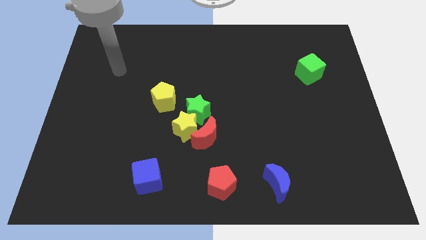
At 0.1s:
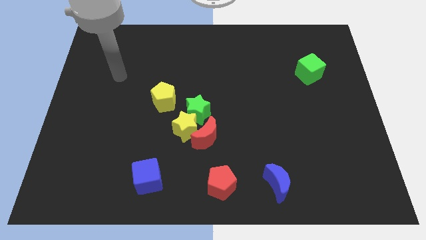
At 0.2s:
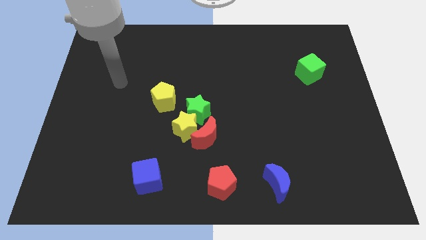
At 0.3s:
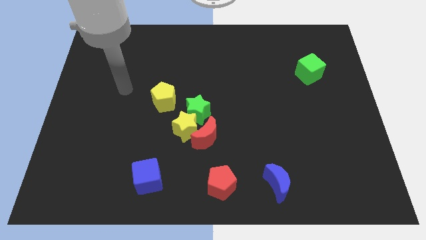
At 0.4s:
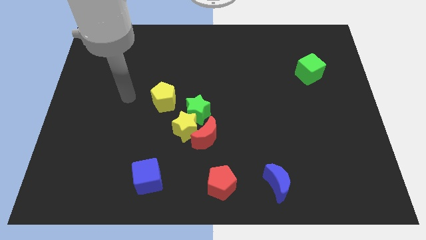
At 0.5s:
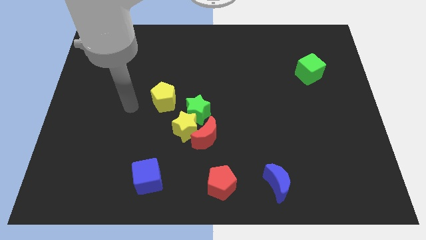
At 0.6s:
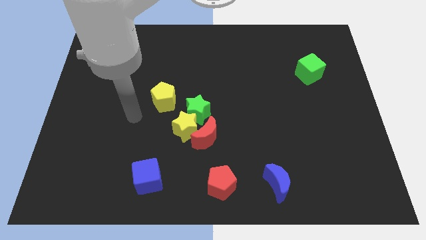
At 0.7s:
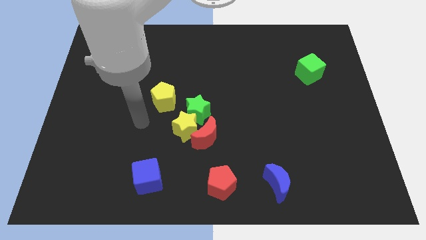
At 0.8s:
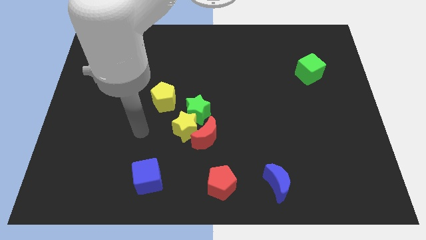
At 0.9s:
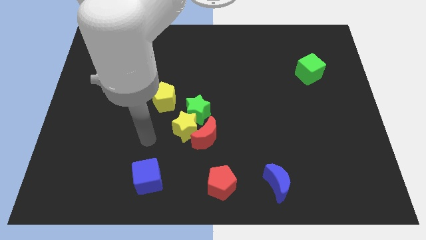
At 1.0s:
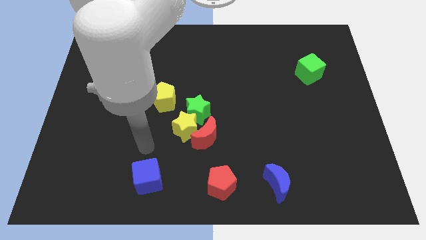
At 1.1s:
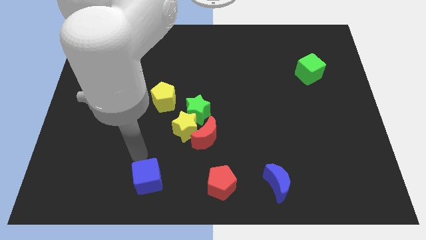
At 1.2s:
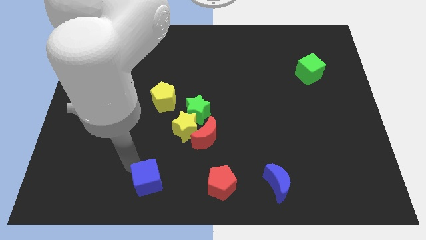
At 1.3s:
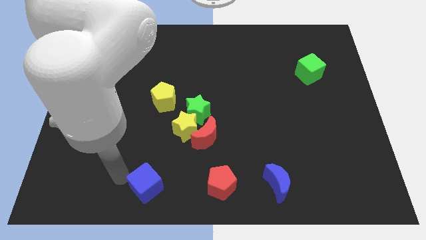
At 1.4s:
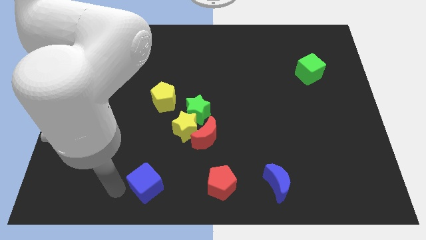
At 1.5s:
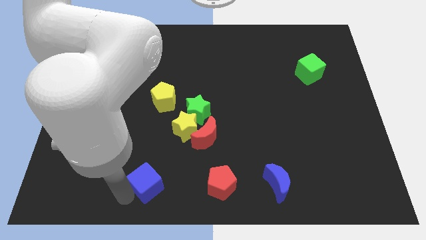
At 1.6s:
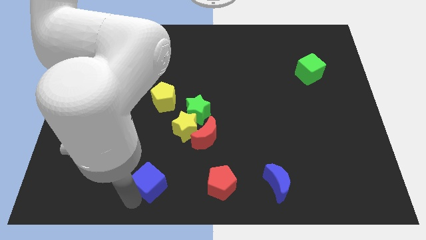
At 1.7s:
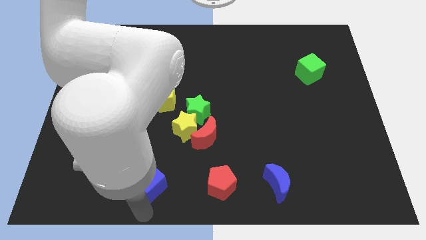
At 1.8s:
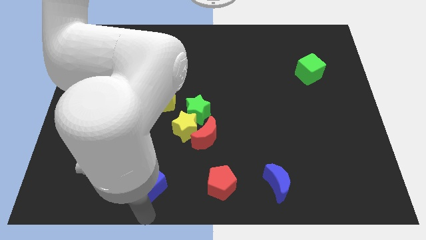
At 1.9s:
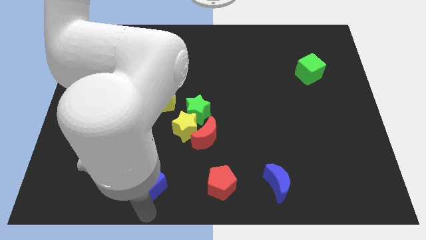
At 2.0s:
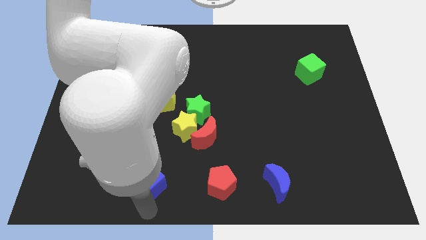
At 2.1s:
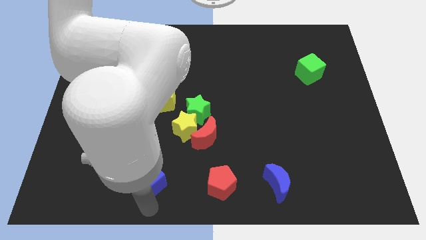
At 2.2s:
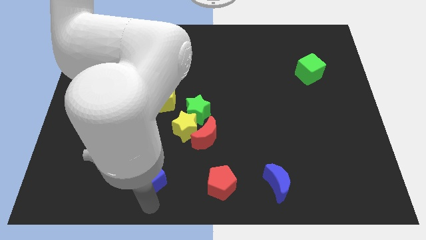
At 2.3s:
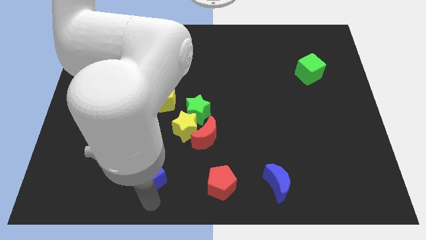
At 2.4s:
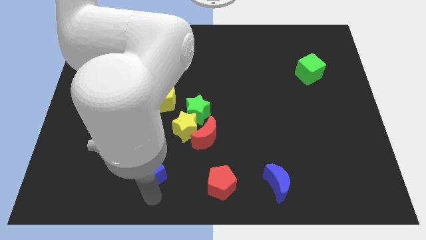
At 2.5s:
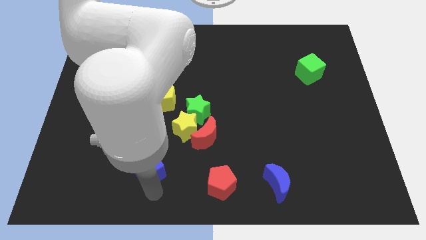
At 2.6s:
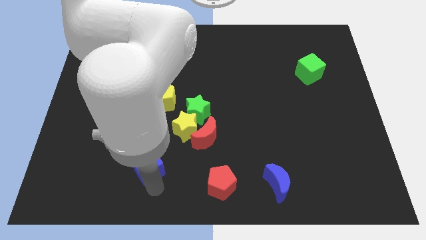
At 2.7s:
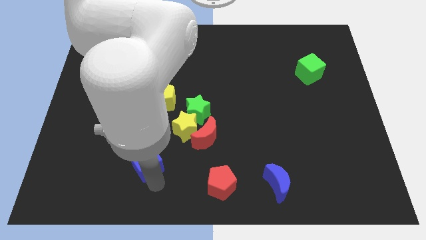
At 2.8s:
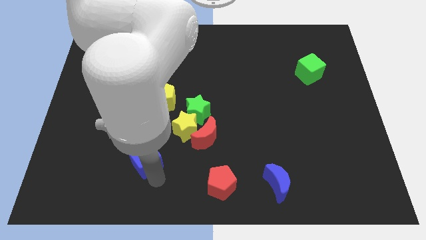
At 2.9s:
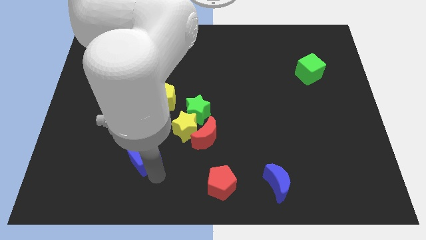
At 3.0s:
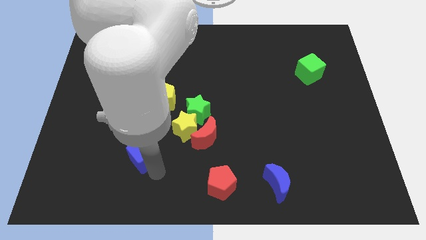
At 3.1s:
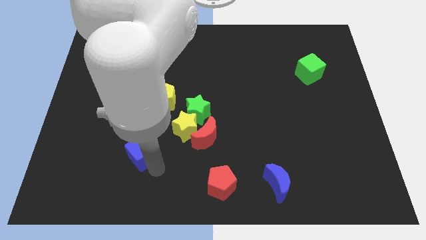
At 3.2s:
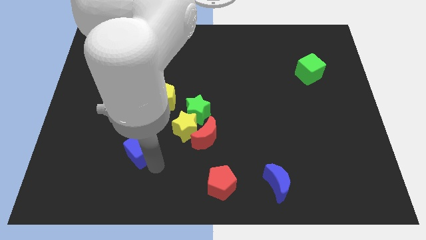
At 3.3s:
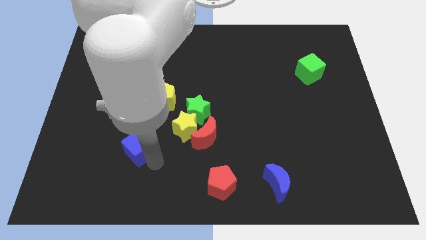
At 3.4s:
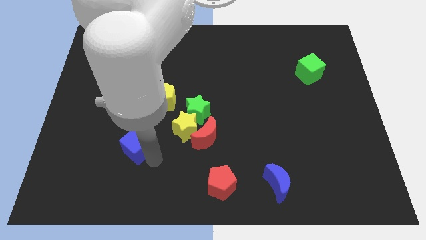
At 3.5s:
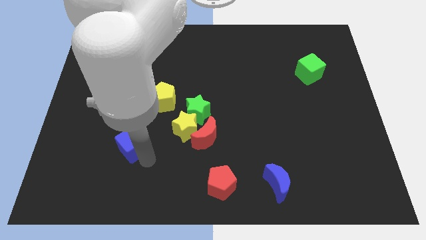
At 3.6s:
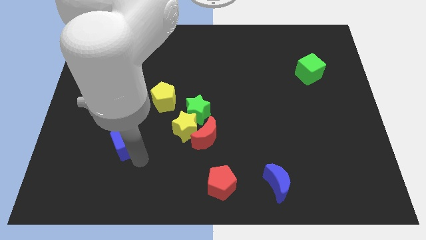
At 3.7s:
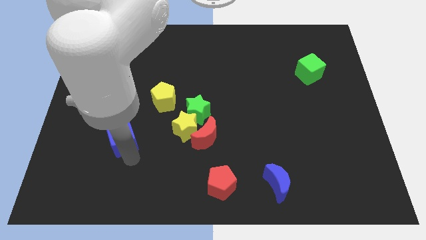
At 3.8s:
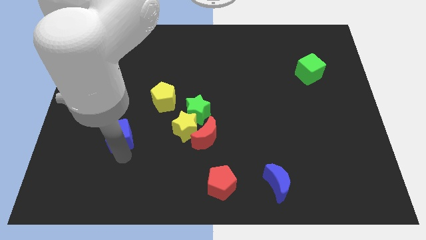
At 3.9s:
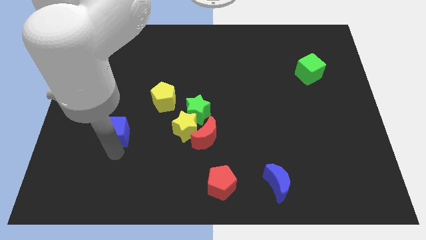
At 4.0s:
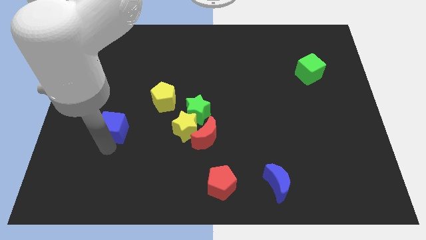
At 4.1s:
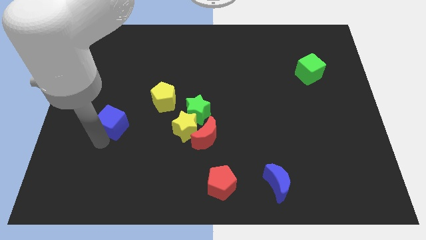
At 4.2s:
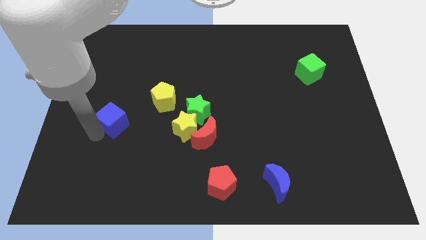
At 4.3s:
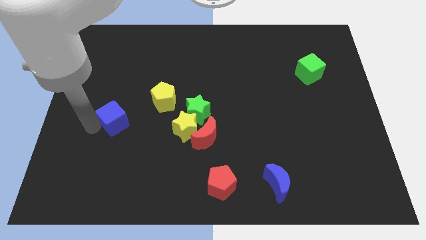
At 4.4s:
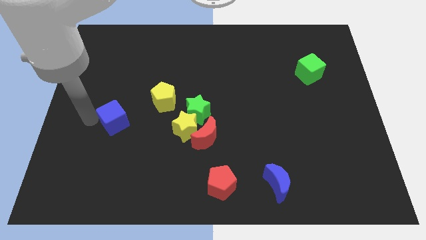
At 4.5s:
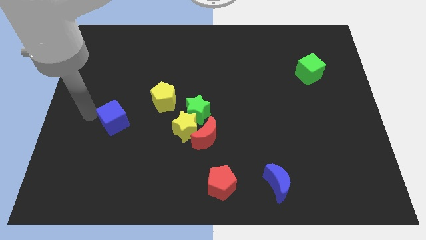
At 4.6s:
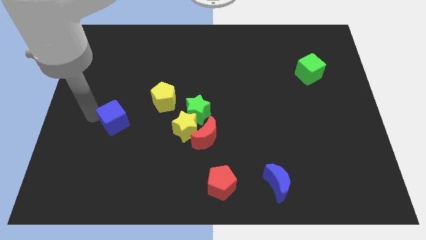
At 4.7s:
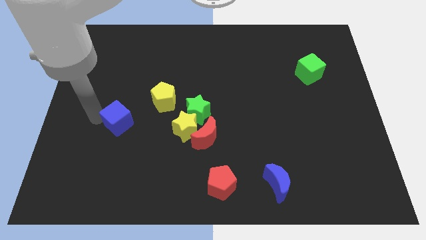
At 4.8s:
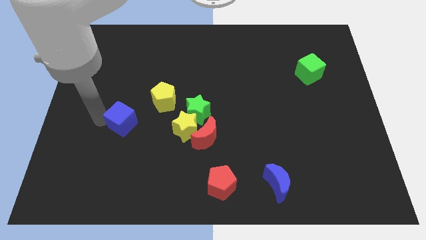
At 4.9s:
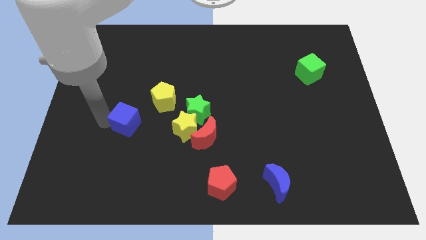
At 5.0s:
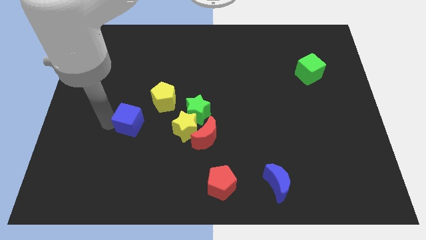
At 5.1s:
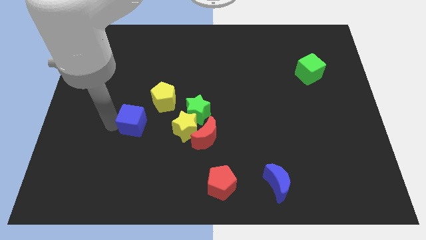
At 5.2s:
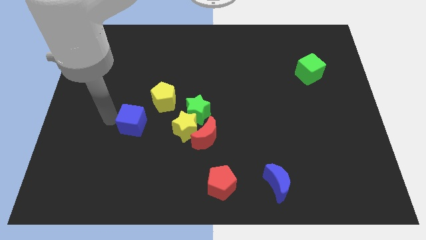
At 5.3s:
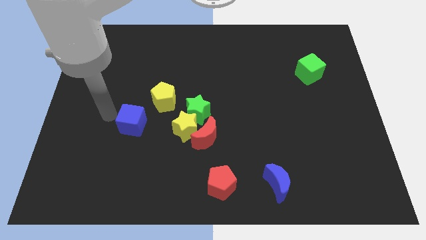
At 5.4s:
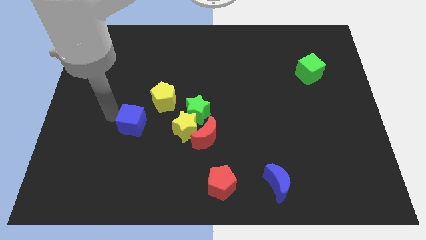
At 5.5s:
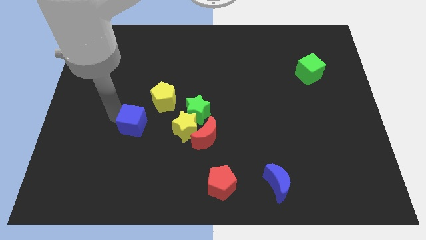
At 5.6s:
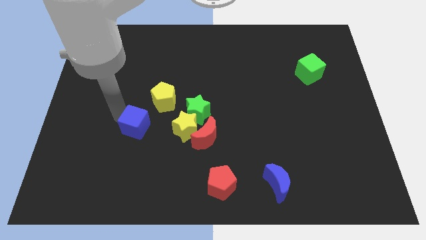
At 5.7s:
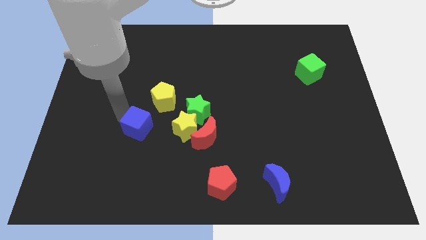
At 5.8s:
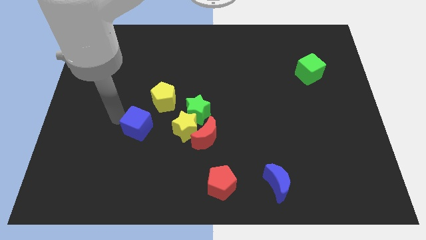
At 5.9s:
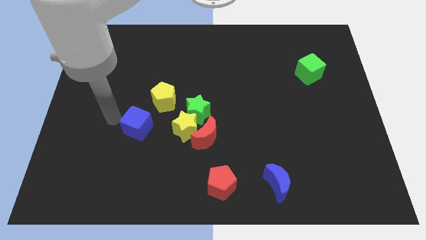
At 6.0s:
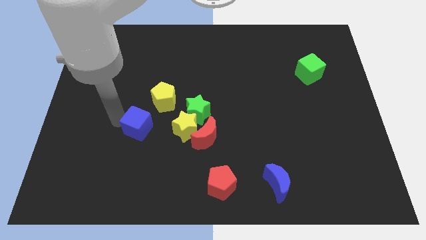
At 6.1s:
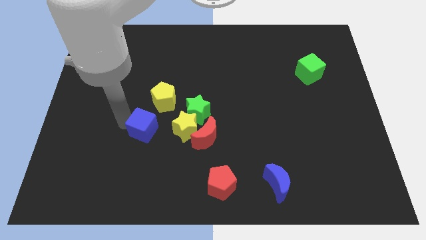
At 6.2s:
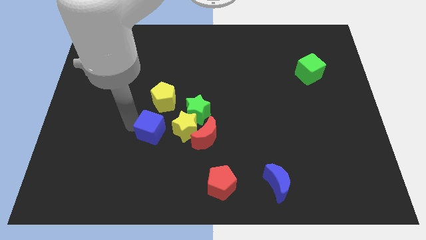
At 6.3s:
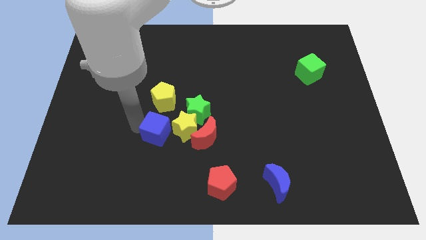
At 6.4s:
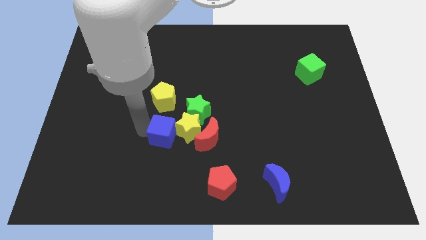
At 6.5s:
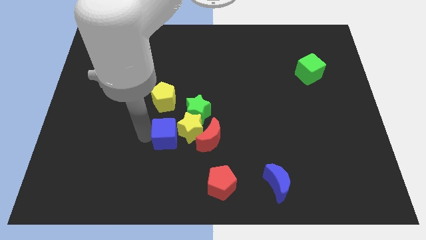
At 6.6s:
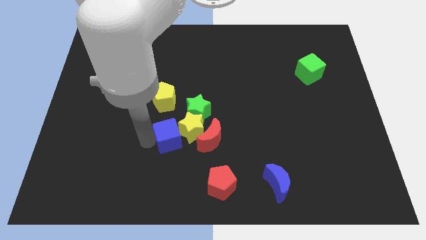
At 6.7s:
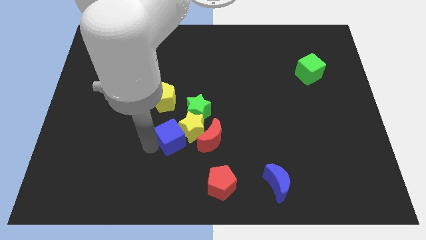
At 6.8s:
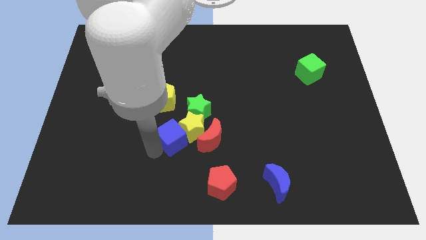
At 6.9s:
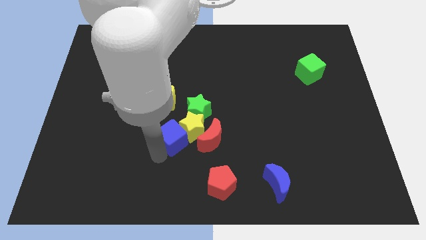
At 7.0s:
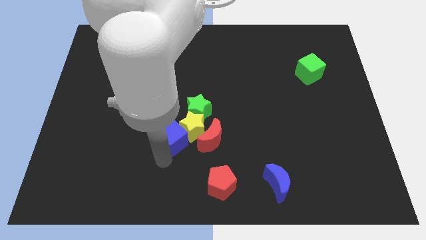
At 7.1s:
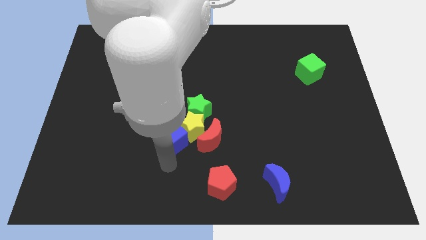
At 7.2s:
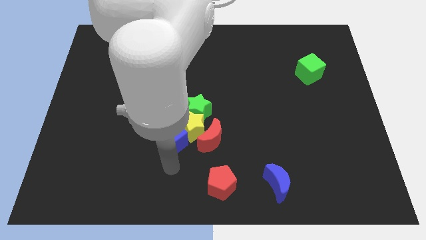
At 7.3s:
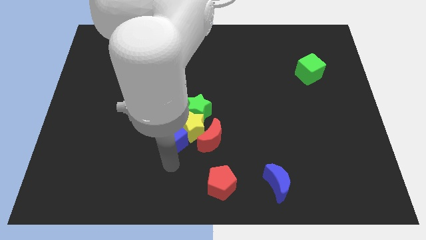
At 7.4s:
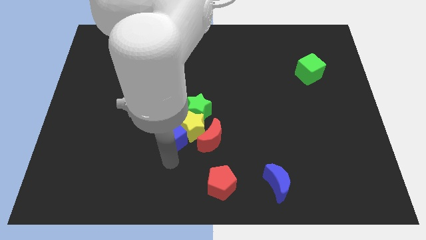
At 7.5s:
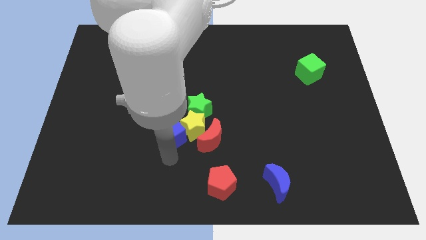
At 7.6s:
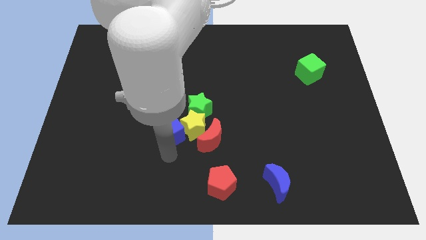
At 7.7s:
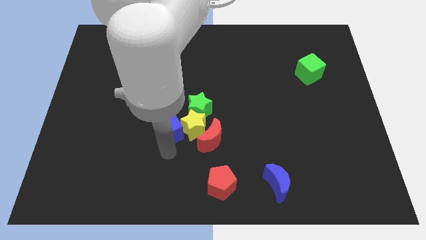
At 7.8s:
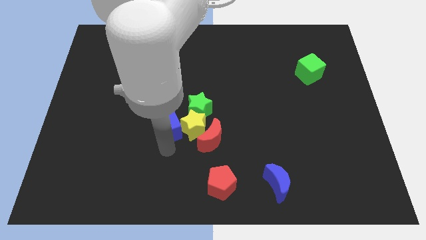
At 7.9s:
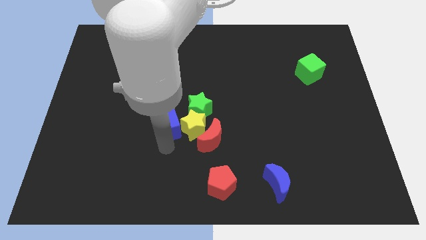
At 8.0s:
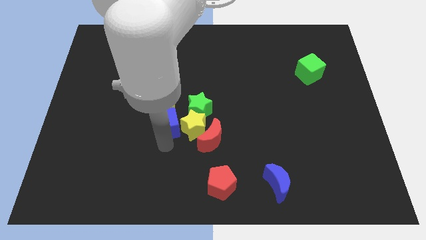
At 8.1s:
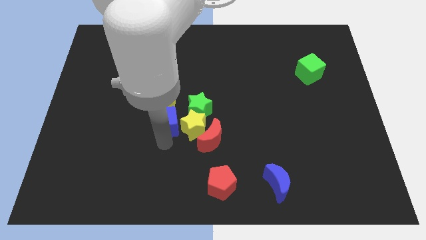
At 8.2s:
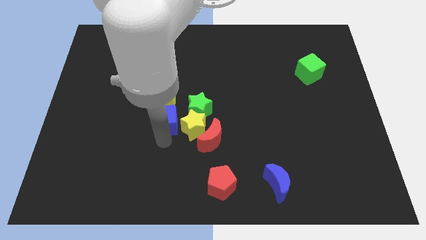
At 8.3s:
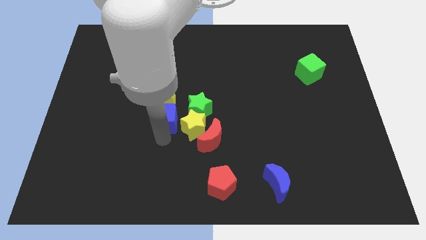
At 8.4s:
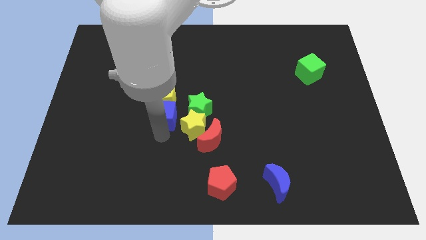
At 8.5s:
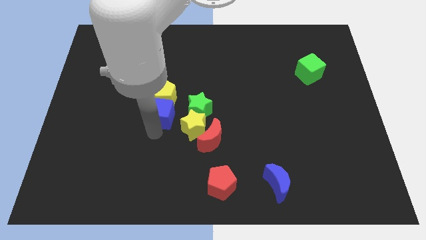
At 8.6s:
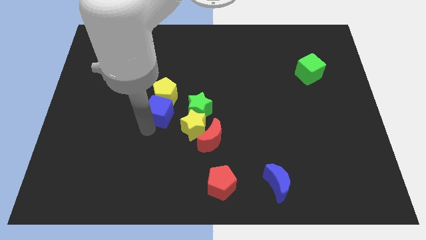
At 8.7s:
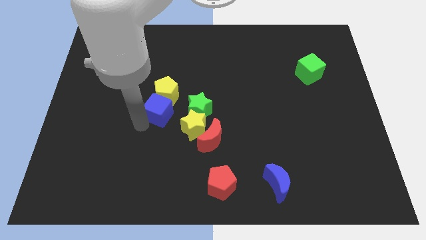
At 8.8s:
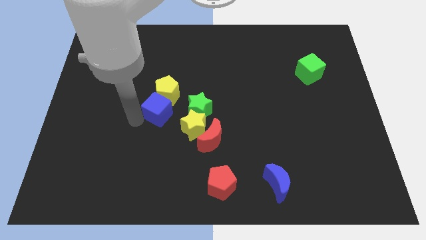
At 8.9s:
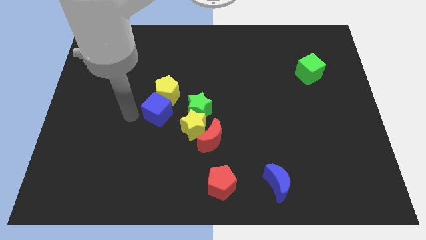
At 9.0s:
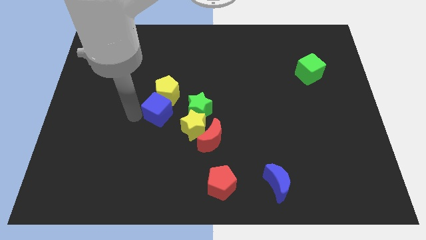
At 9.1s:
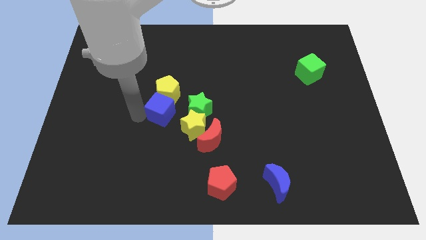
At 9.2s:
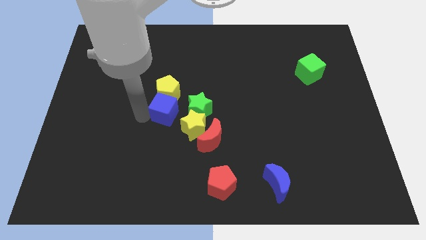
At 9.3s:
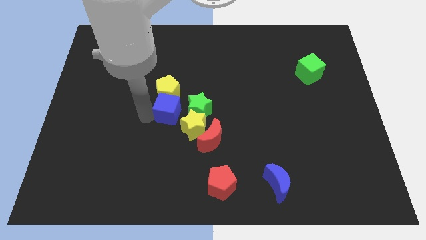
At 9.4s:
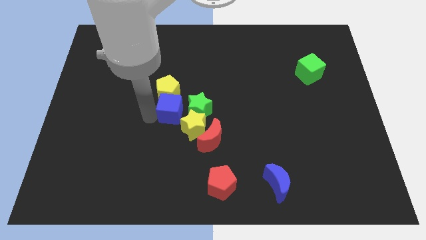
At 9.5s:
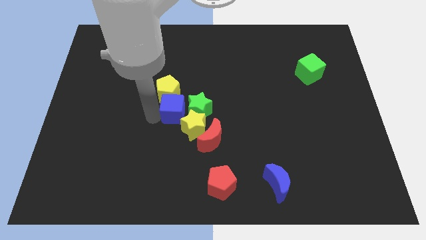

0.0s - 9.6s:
push the blue cube next to the green star
